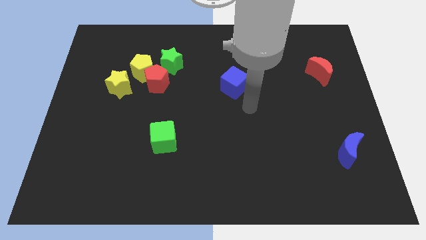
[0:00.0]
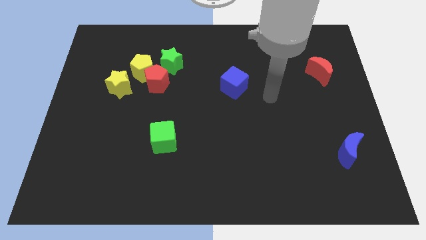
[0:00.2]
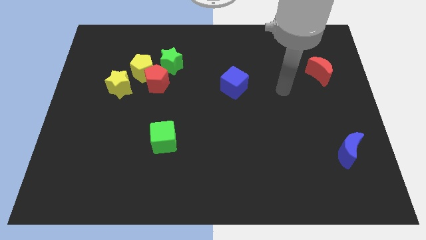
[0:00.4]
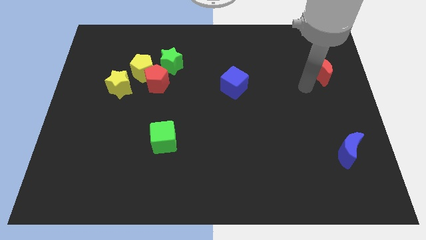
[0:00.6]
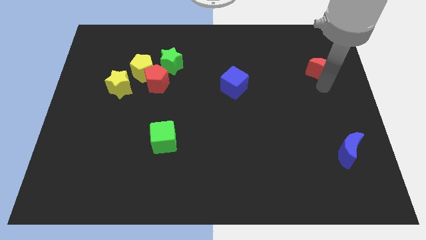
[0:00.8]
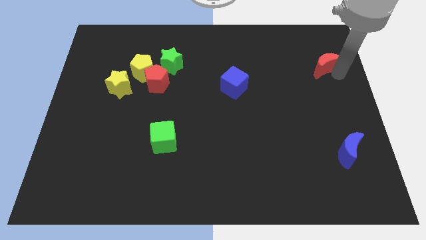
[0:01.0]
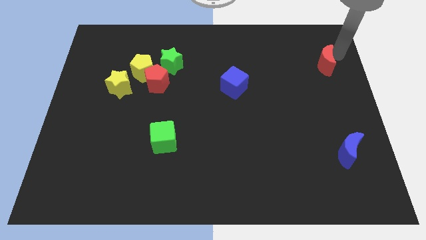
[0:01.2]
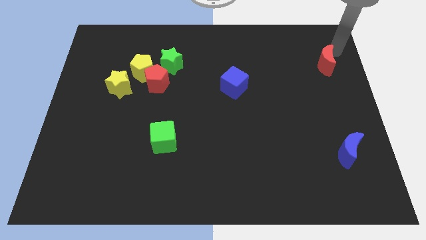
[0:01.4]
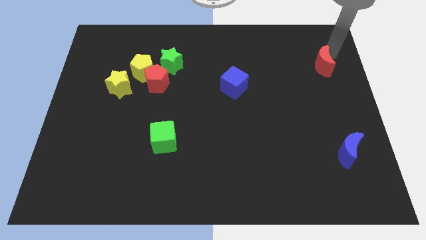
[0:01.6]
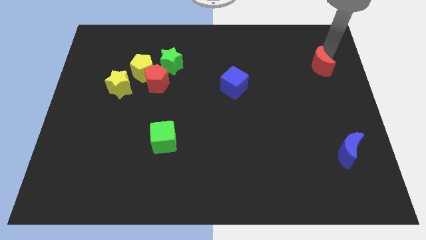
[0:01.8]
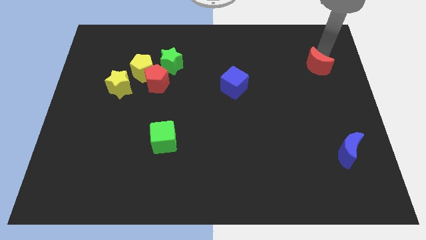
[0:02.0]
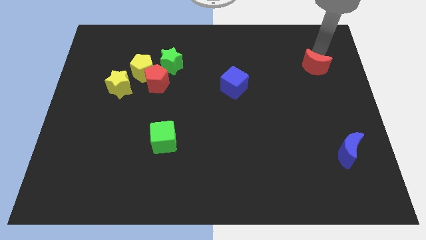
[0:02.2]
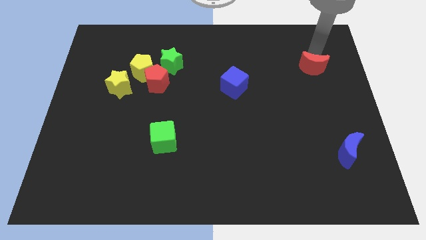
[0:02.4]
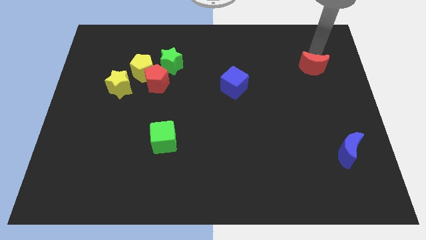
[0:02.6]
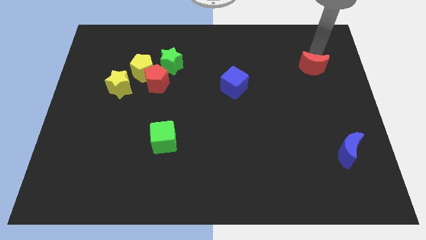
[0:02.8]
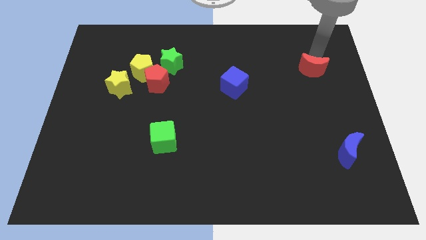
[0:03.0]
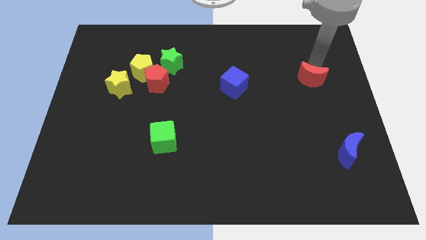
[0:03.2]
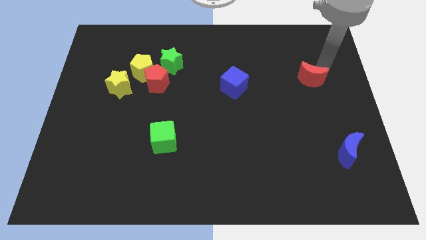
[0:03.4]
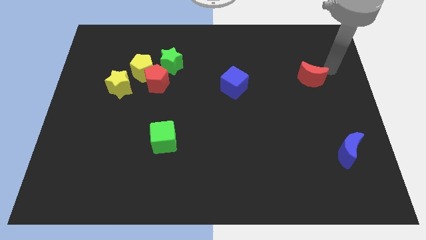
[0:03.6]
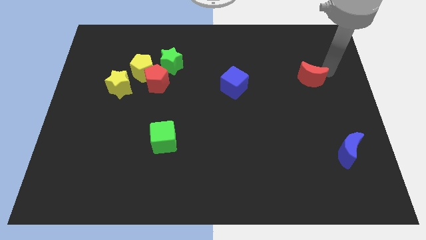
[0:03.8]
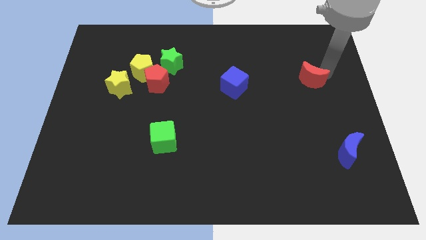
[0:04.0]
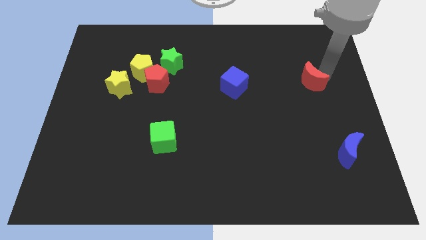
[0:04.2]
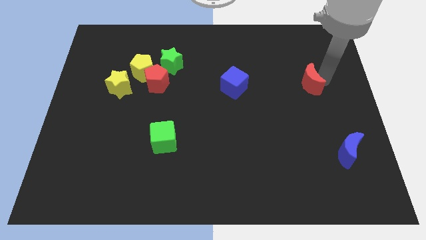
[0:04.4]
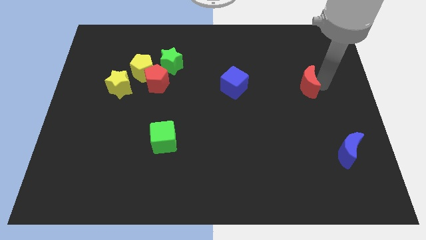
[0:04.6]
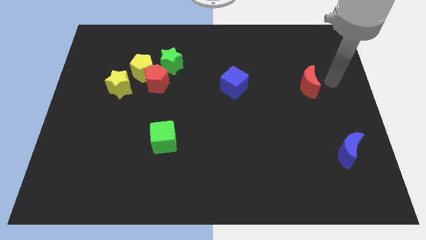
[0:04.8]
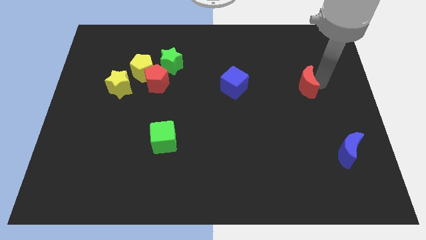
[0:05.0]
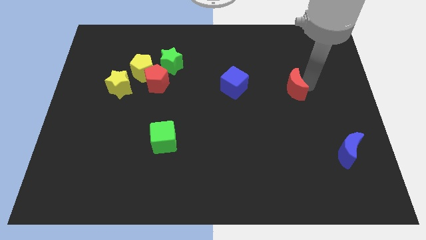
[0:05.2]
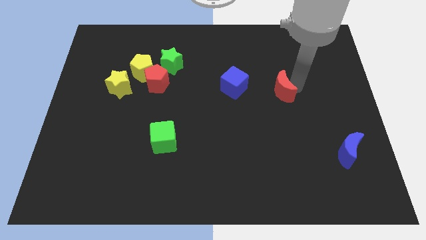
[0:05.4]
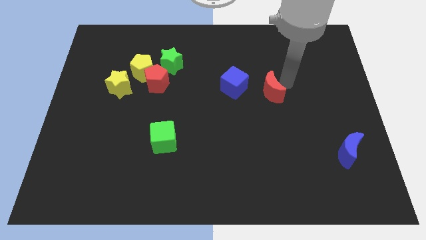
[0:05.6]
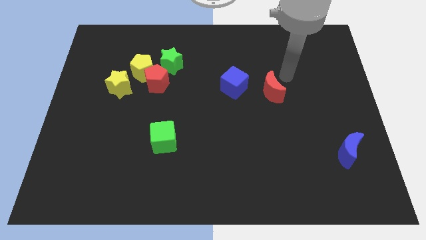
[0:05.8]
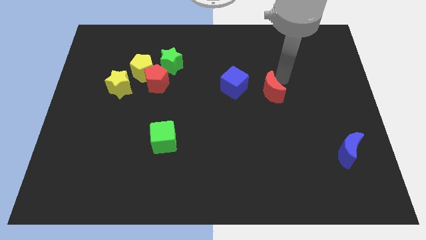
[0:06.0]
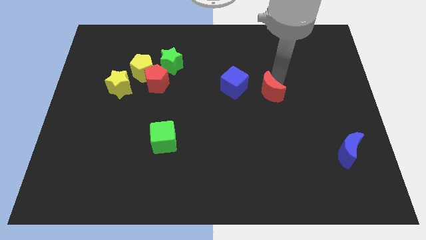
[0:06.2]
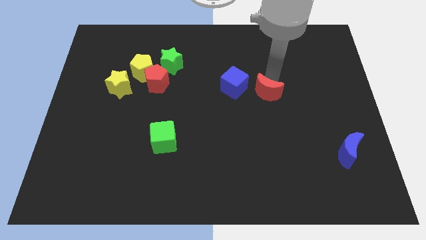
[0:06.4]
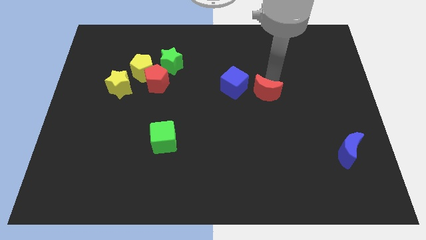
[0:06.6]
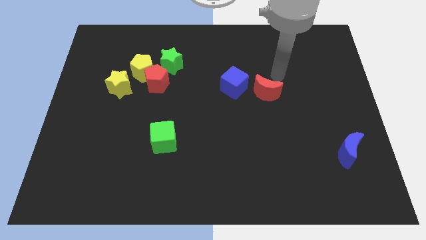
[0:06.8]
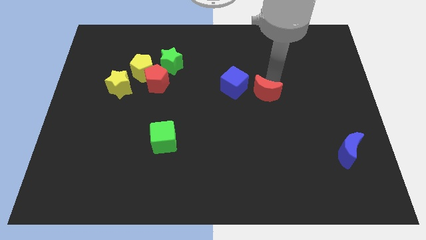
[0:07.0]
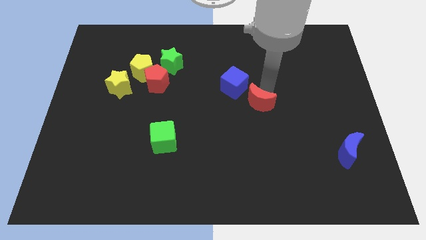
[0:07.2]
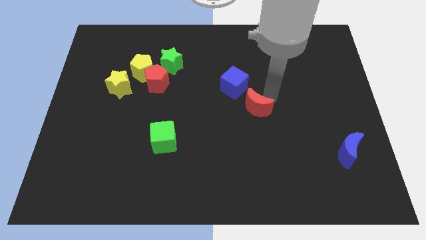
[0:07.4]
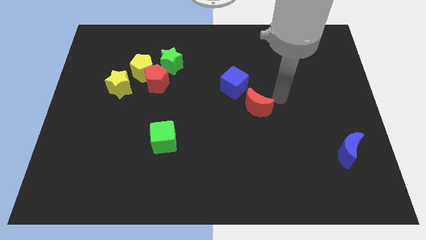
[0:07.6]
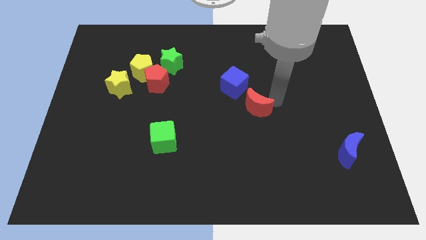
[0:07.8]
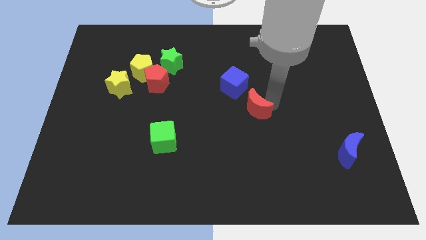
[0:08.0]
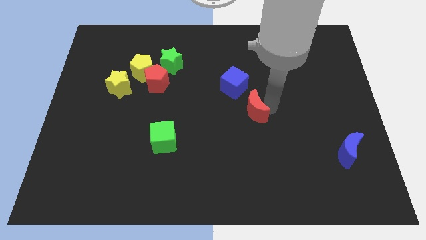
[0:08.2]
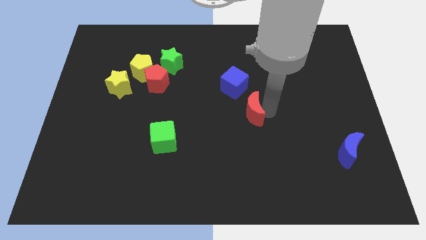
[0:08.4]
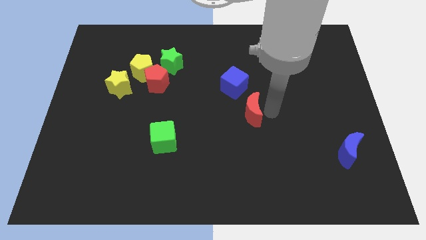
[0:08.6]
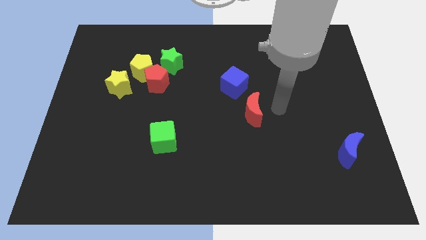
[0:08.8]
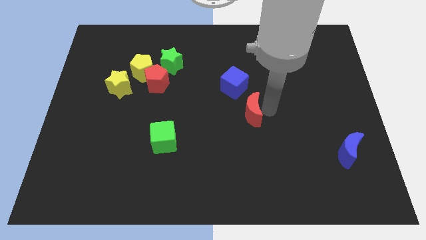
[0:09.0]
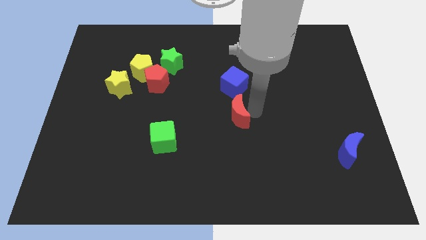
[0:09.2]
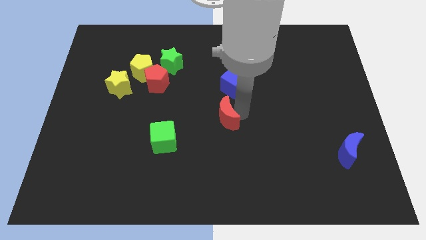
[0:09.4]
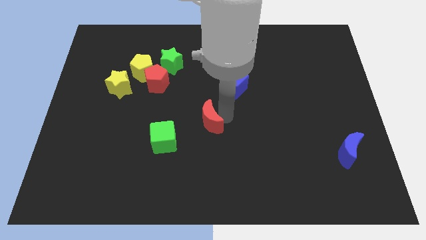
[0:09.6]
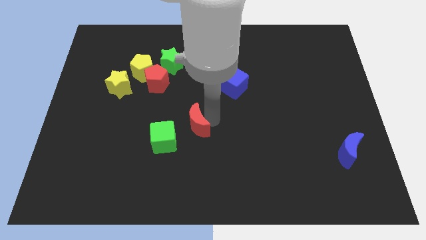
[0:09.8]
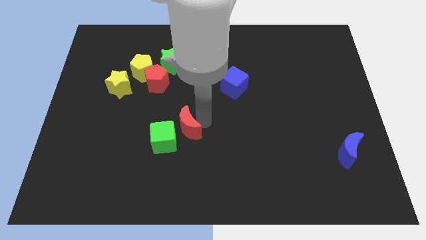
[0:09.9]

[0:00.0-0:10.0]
push the red moon towards the green cube

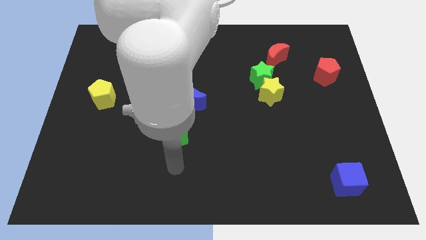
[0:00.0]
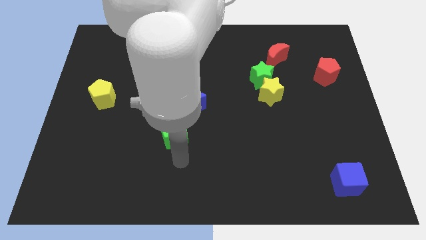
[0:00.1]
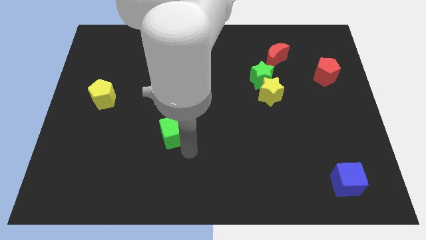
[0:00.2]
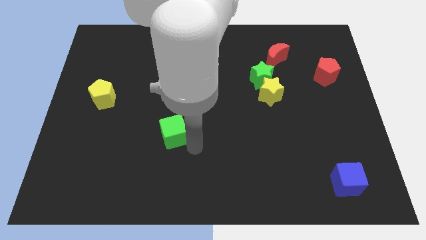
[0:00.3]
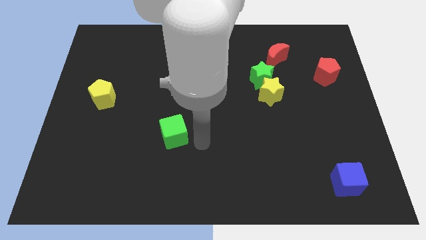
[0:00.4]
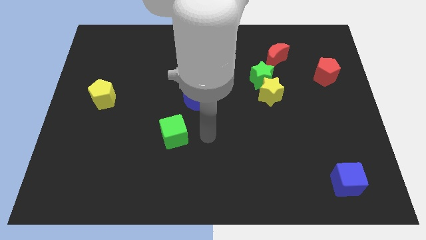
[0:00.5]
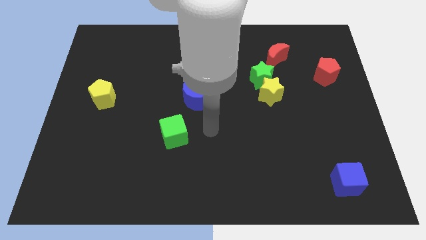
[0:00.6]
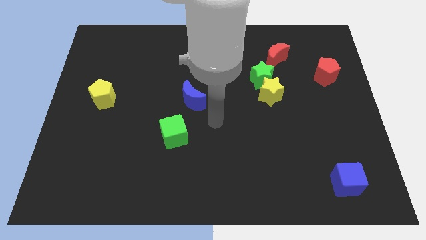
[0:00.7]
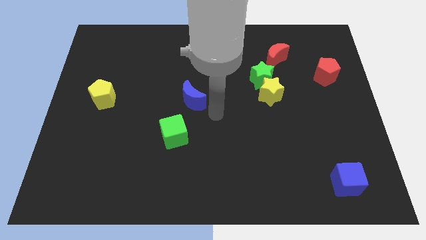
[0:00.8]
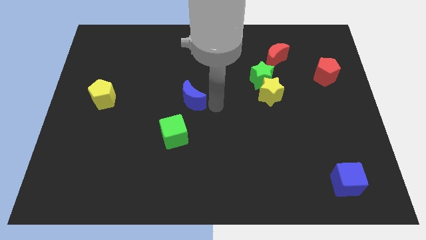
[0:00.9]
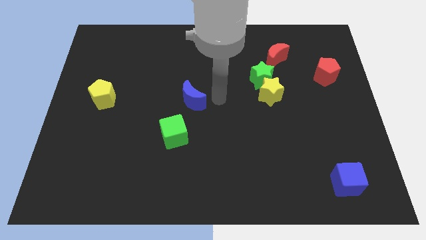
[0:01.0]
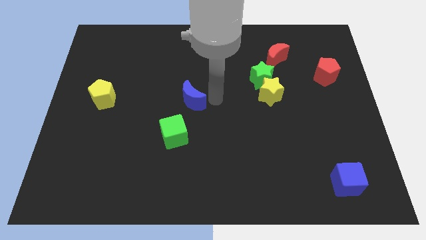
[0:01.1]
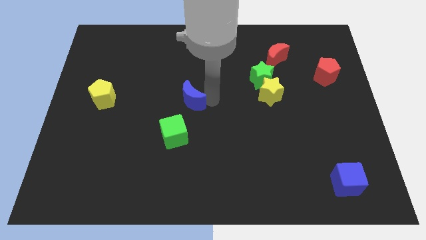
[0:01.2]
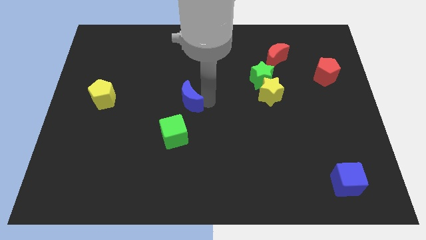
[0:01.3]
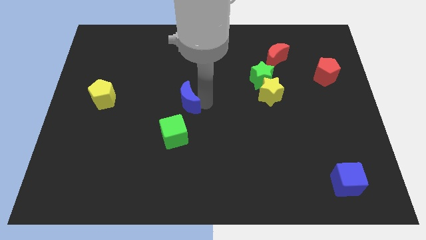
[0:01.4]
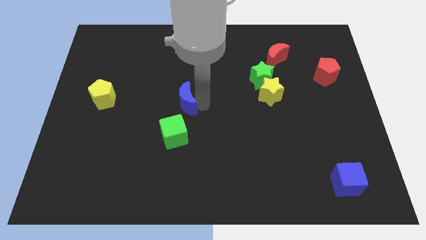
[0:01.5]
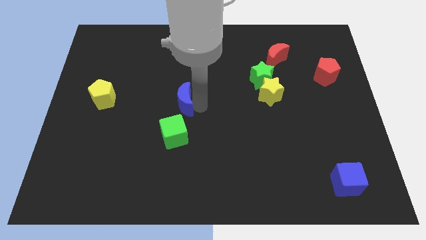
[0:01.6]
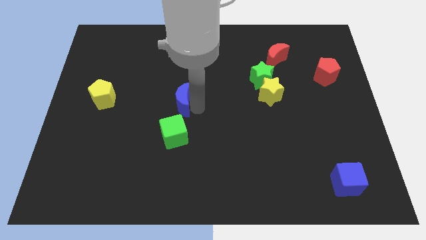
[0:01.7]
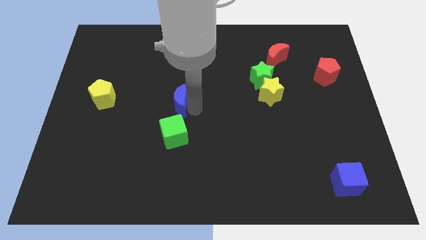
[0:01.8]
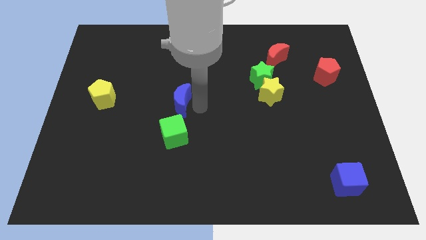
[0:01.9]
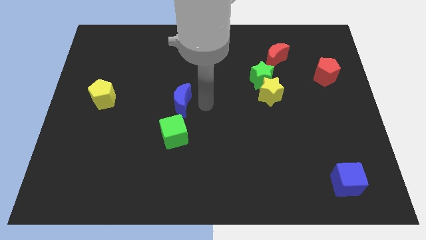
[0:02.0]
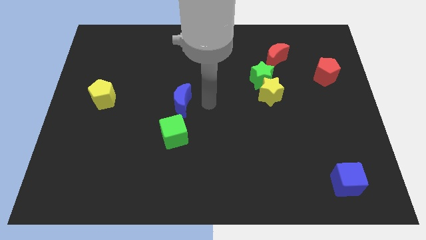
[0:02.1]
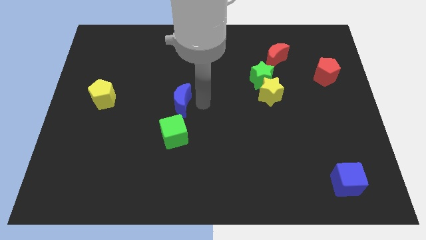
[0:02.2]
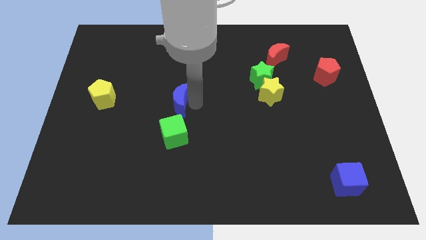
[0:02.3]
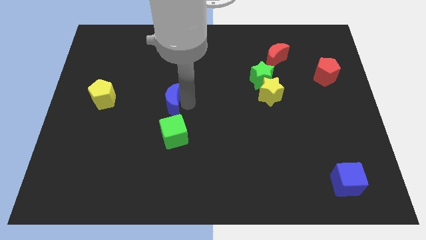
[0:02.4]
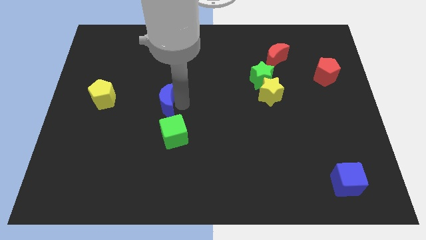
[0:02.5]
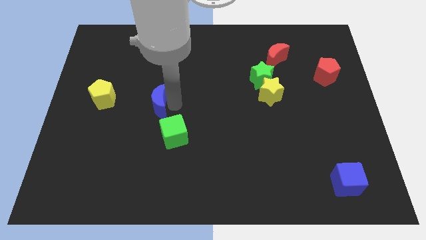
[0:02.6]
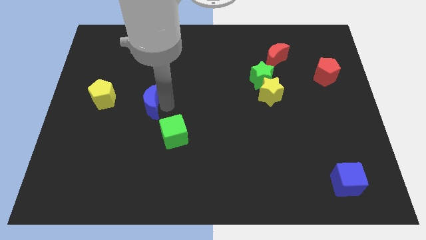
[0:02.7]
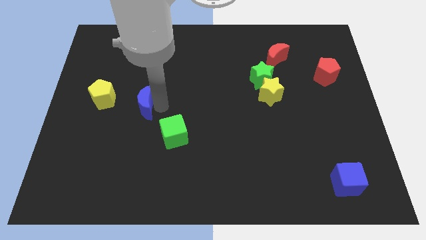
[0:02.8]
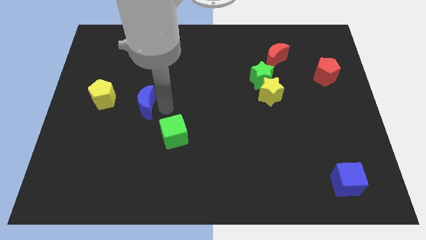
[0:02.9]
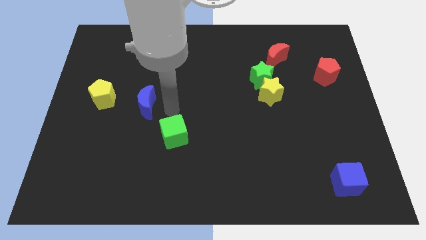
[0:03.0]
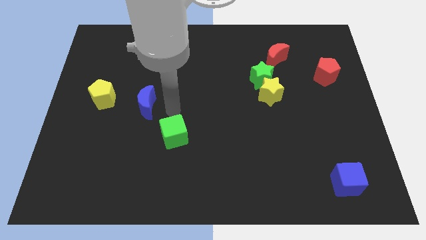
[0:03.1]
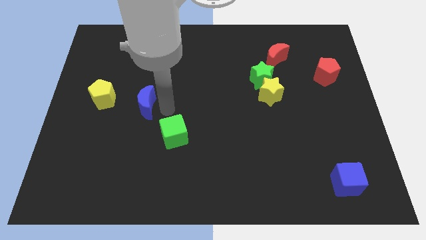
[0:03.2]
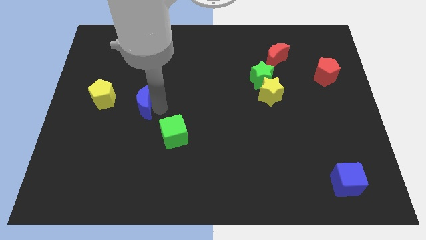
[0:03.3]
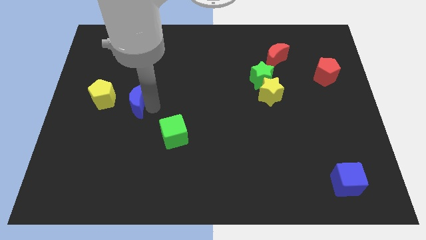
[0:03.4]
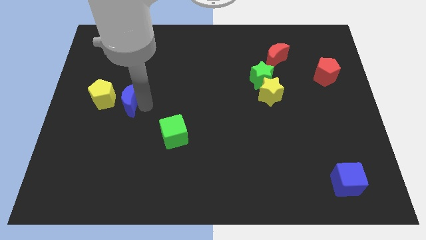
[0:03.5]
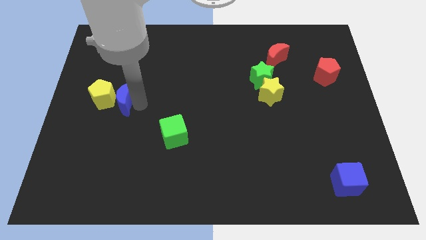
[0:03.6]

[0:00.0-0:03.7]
push the blue moon close to the yellow pentagon
